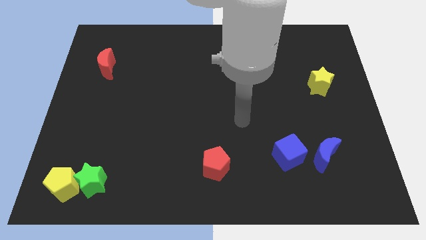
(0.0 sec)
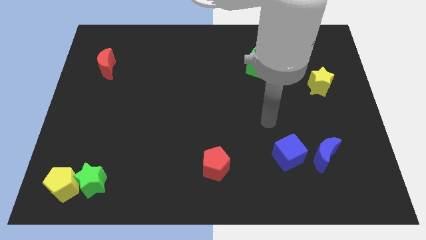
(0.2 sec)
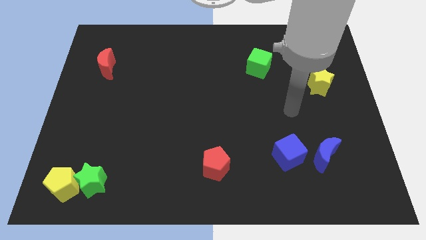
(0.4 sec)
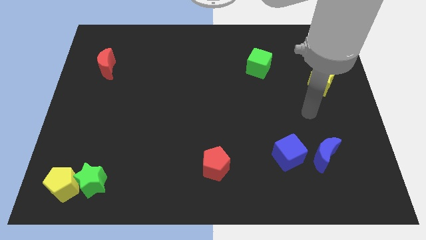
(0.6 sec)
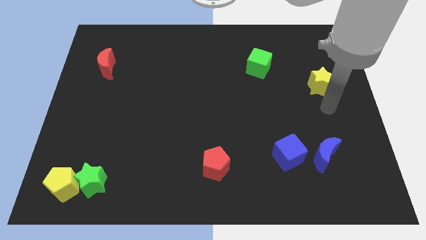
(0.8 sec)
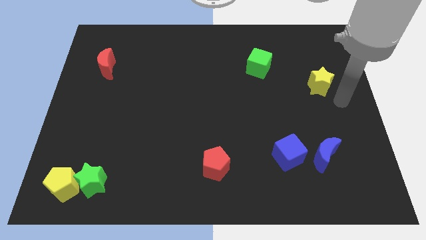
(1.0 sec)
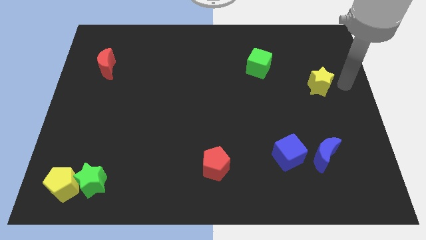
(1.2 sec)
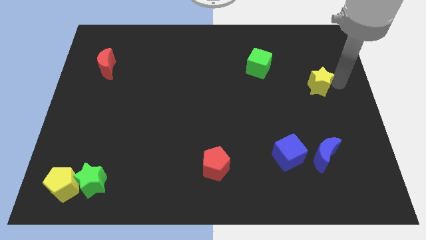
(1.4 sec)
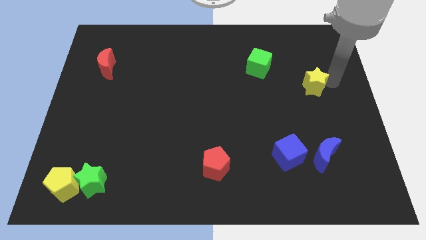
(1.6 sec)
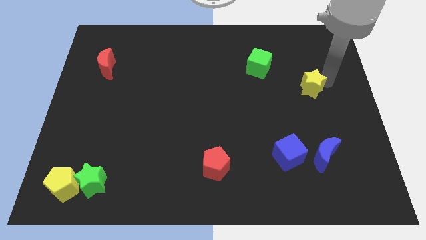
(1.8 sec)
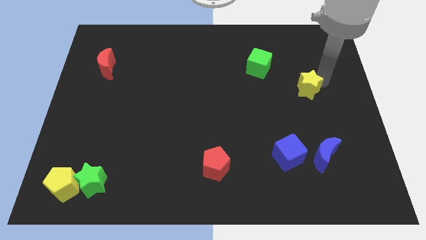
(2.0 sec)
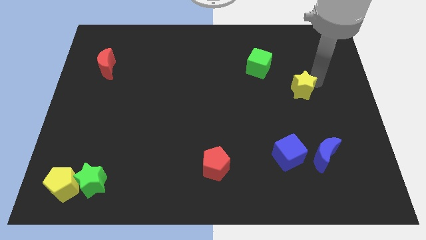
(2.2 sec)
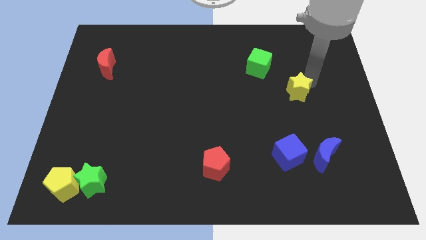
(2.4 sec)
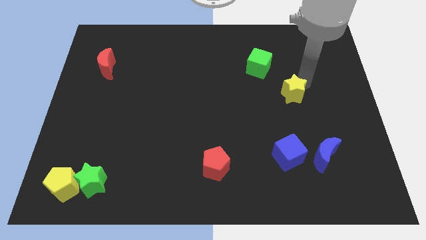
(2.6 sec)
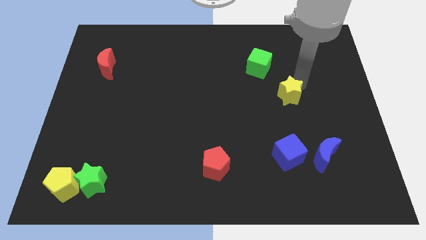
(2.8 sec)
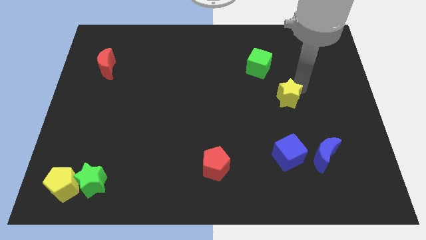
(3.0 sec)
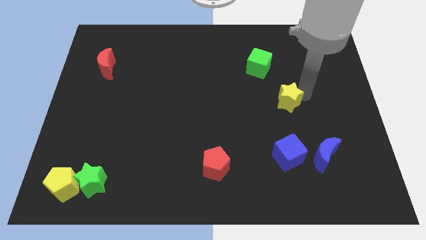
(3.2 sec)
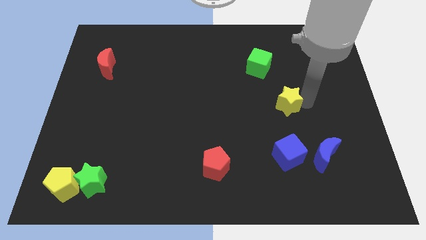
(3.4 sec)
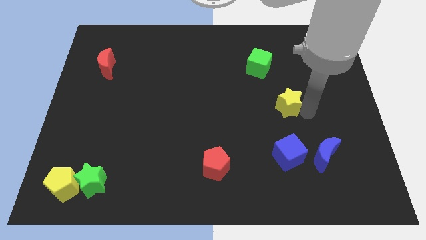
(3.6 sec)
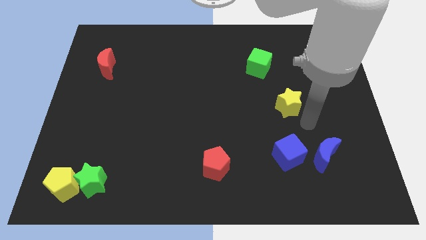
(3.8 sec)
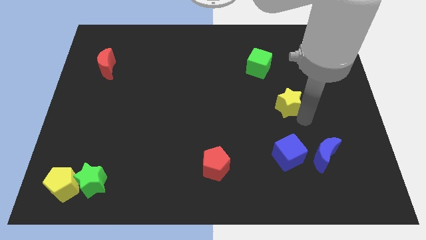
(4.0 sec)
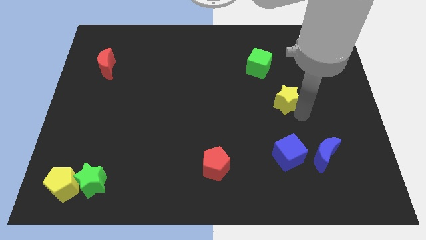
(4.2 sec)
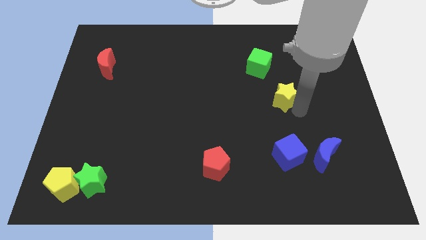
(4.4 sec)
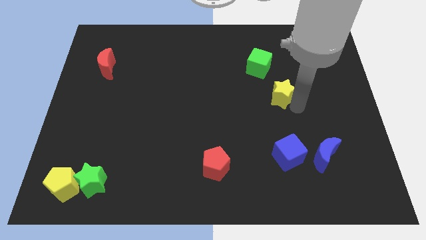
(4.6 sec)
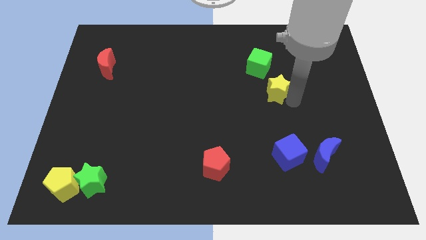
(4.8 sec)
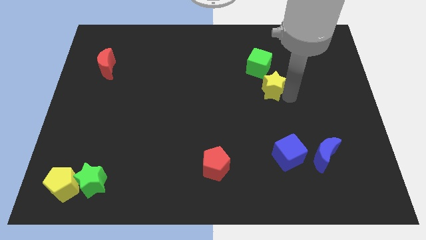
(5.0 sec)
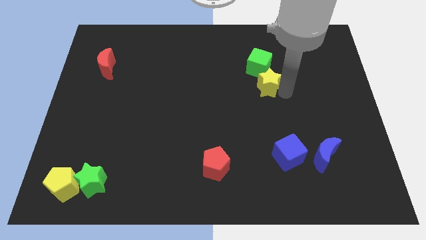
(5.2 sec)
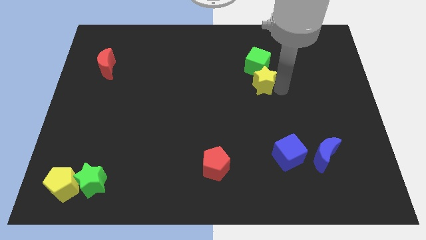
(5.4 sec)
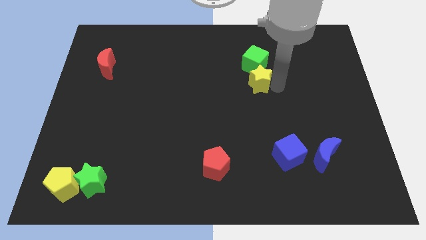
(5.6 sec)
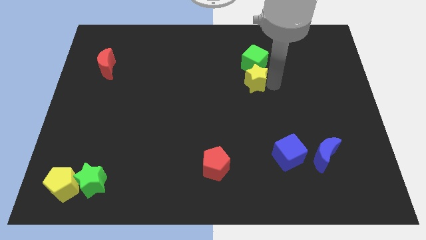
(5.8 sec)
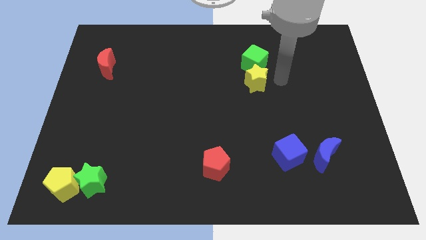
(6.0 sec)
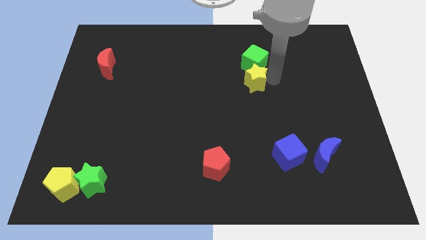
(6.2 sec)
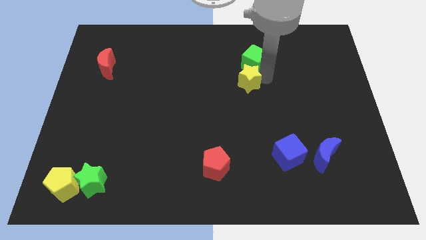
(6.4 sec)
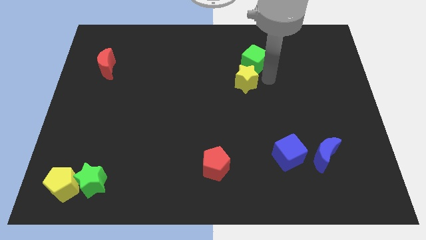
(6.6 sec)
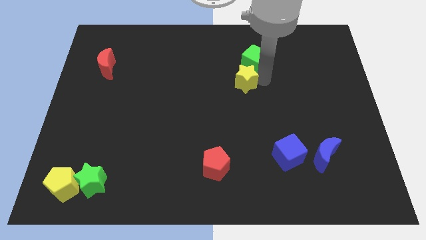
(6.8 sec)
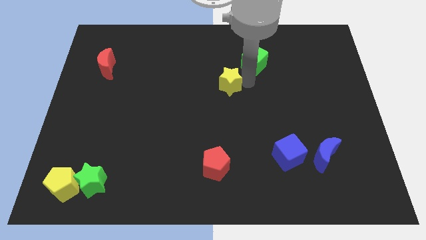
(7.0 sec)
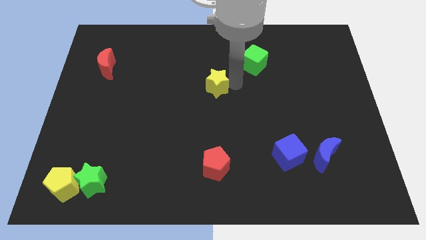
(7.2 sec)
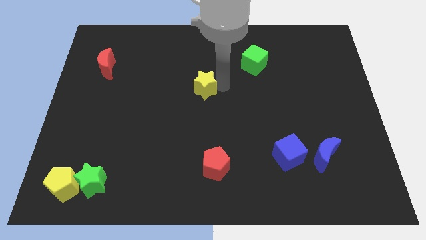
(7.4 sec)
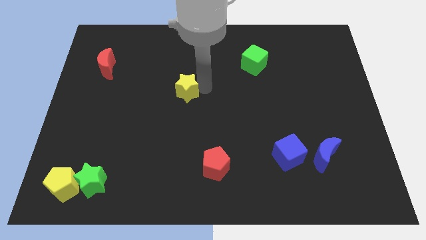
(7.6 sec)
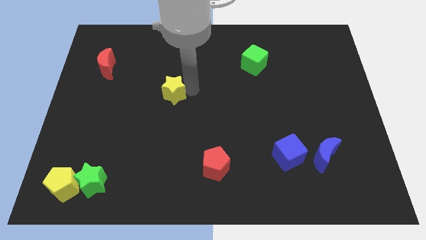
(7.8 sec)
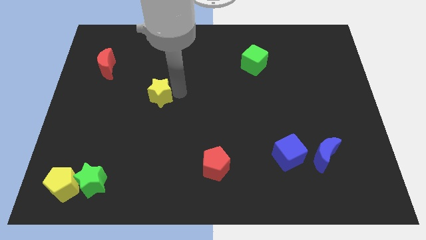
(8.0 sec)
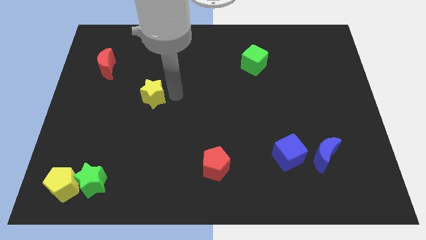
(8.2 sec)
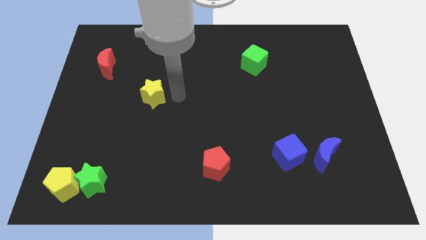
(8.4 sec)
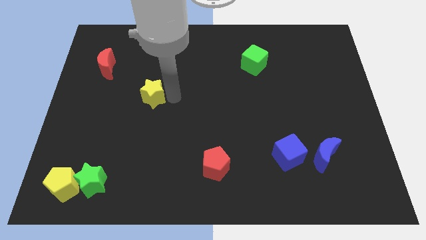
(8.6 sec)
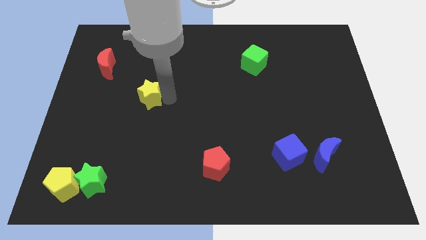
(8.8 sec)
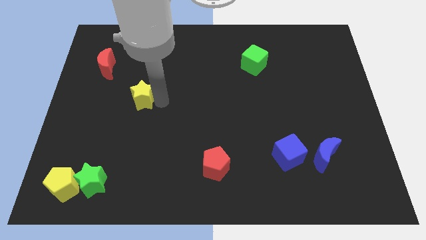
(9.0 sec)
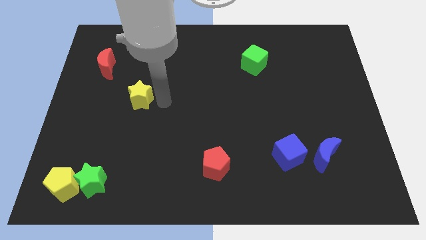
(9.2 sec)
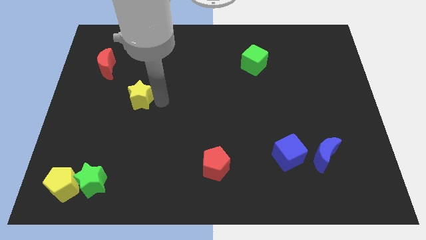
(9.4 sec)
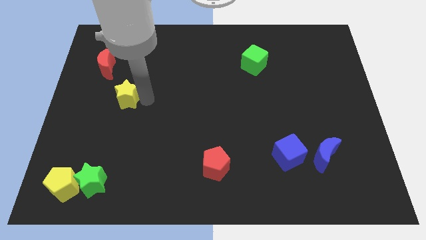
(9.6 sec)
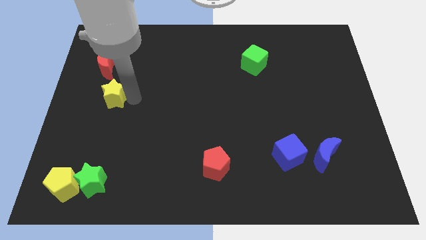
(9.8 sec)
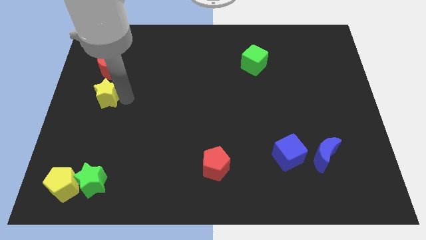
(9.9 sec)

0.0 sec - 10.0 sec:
push the yellow star to the center left

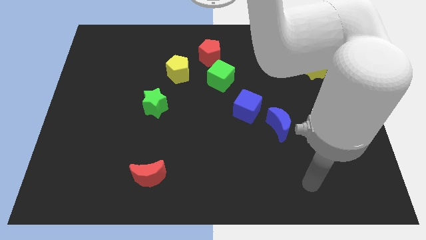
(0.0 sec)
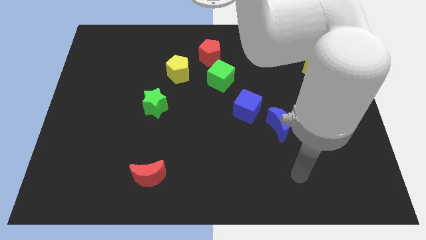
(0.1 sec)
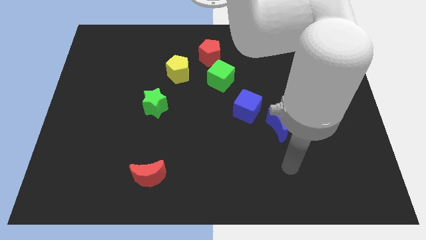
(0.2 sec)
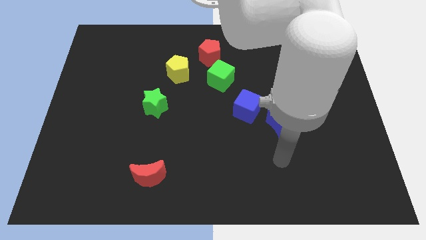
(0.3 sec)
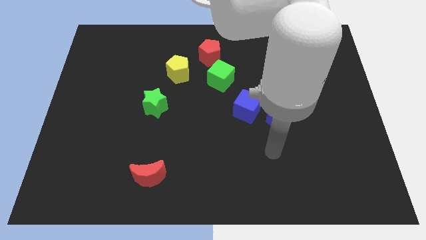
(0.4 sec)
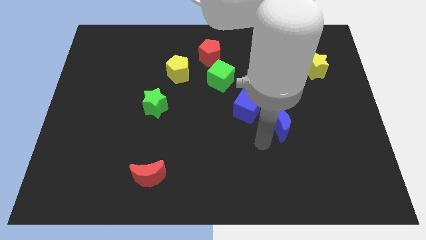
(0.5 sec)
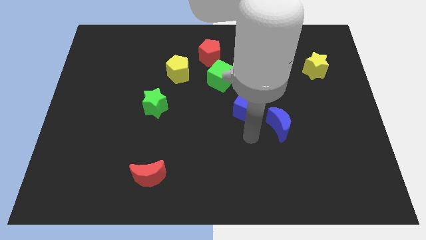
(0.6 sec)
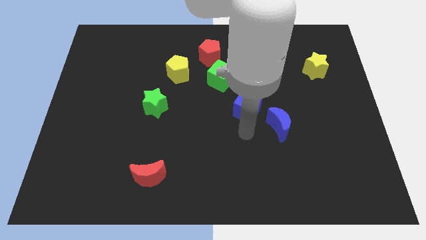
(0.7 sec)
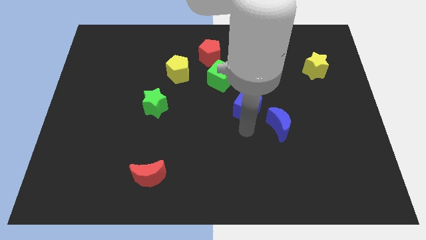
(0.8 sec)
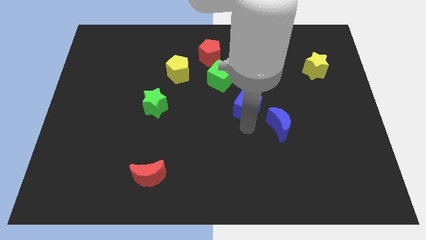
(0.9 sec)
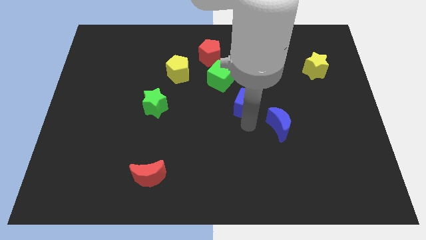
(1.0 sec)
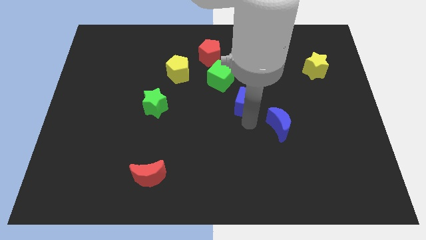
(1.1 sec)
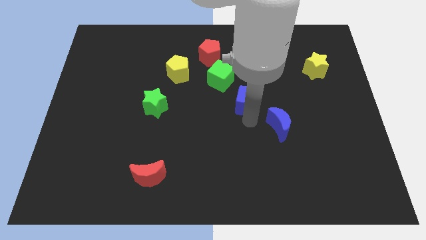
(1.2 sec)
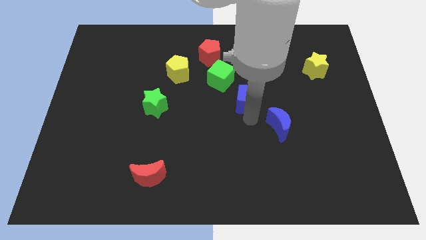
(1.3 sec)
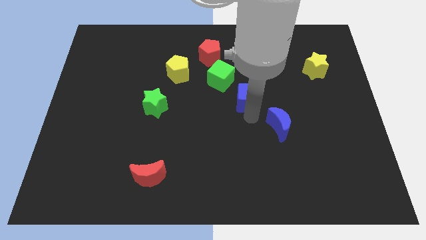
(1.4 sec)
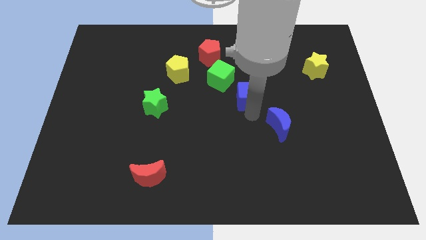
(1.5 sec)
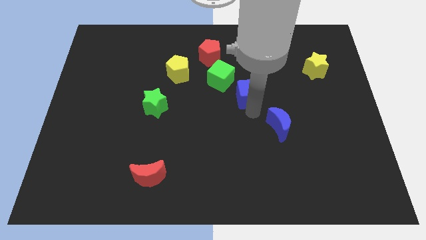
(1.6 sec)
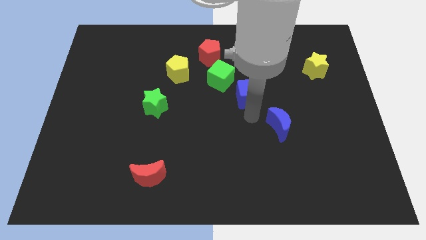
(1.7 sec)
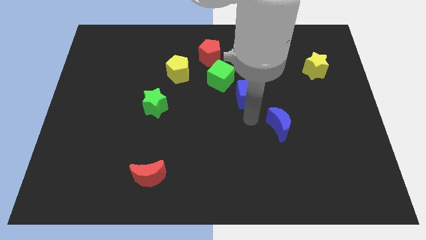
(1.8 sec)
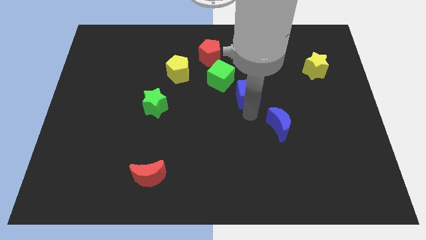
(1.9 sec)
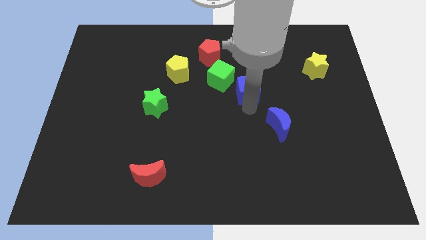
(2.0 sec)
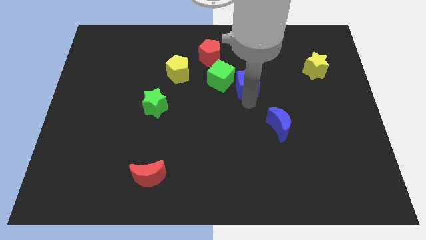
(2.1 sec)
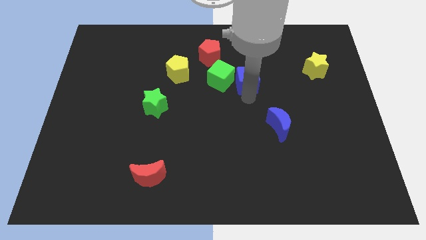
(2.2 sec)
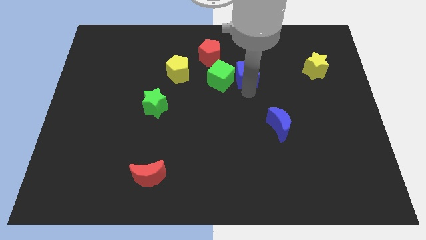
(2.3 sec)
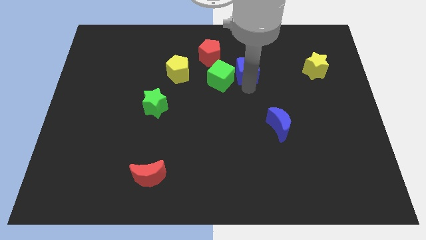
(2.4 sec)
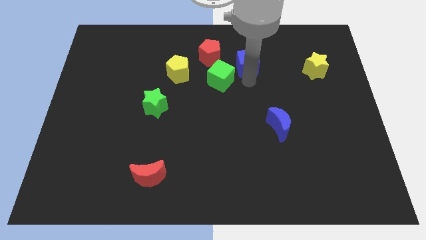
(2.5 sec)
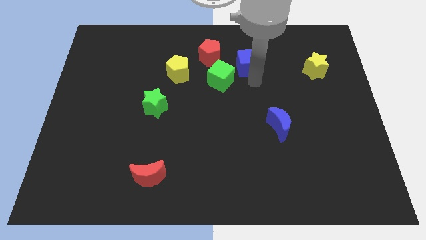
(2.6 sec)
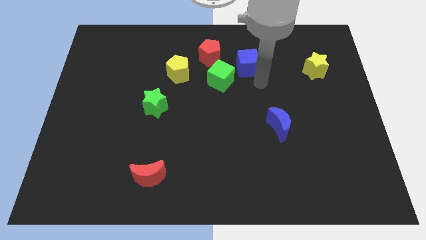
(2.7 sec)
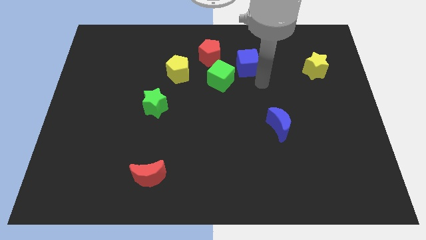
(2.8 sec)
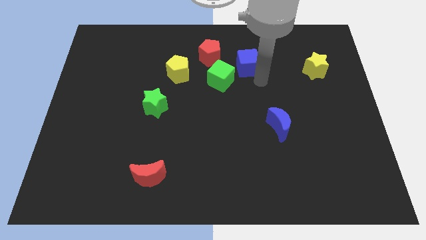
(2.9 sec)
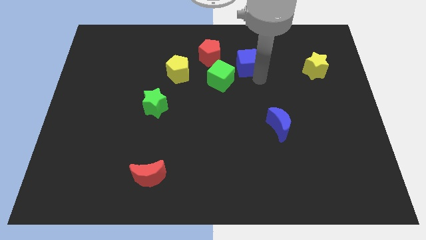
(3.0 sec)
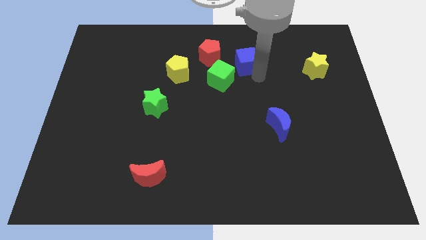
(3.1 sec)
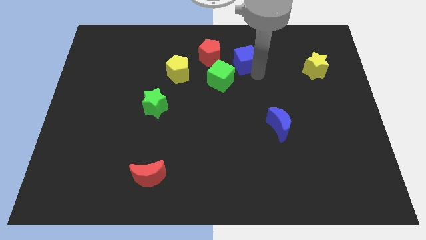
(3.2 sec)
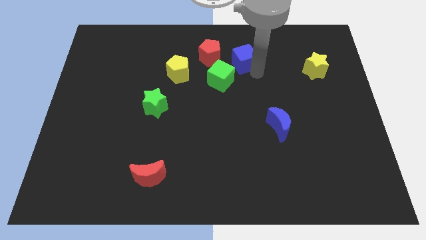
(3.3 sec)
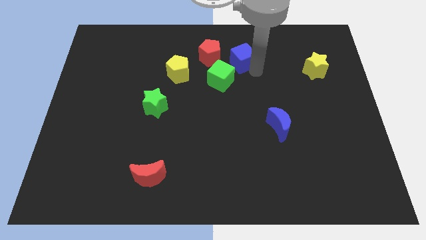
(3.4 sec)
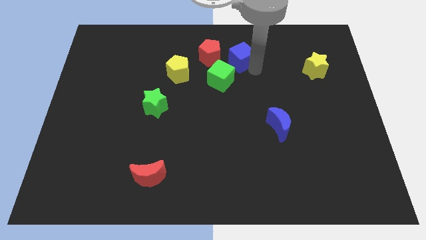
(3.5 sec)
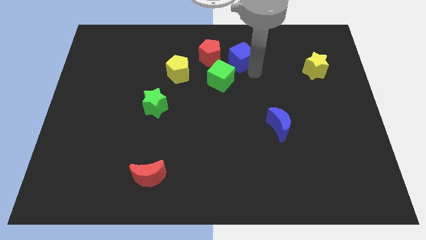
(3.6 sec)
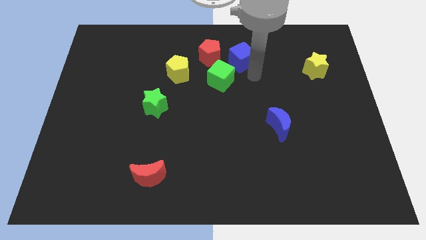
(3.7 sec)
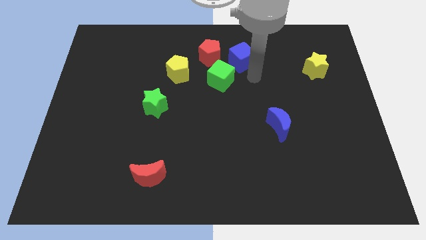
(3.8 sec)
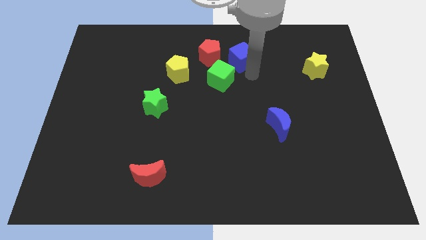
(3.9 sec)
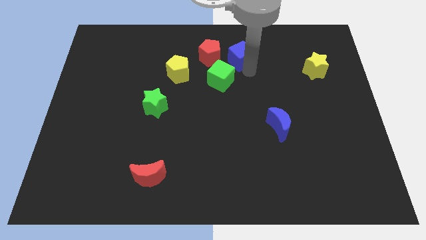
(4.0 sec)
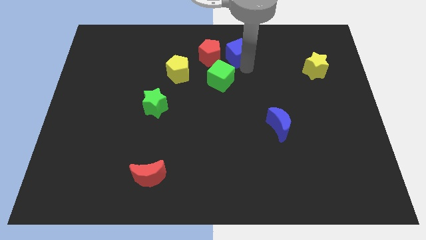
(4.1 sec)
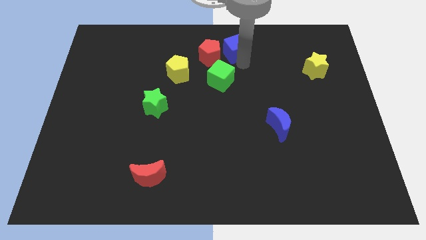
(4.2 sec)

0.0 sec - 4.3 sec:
move the blue cube to the towards your base
